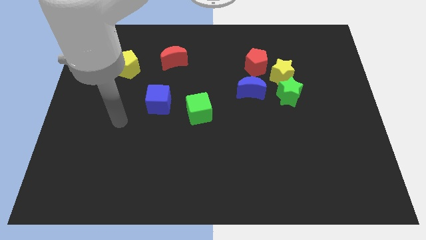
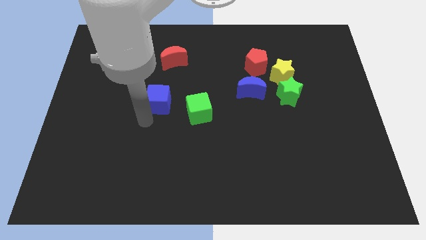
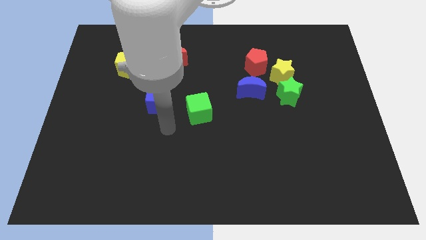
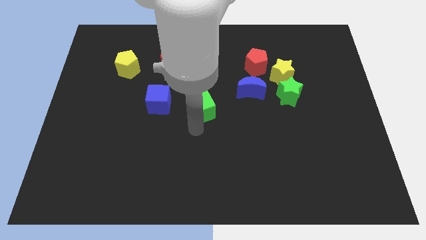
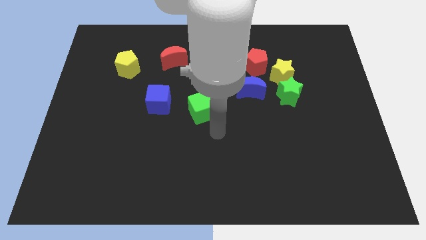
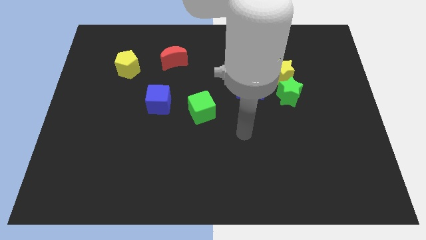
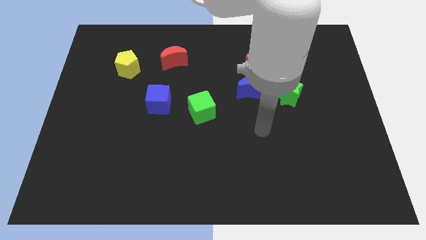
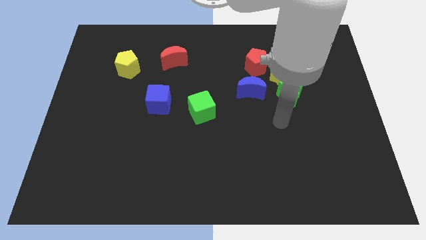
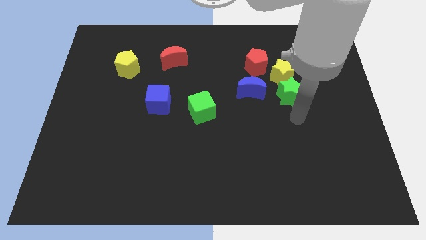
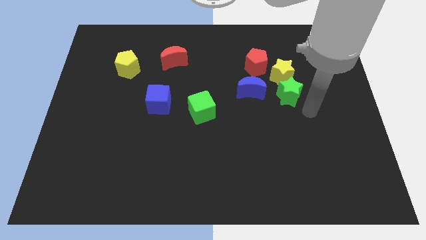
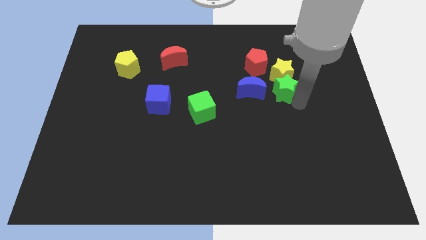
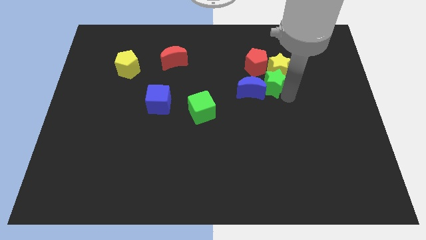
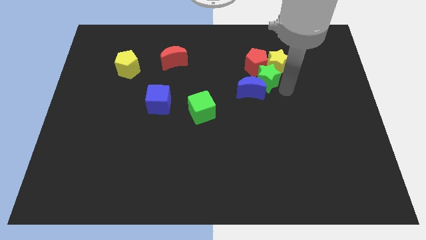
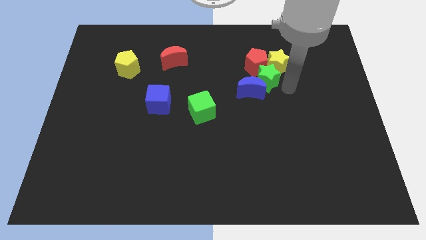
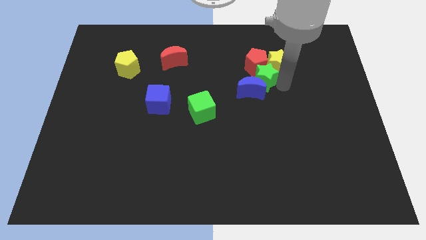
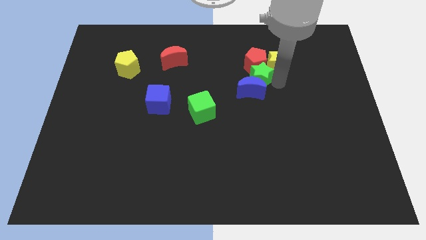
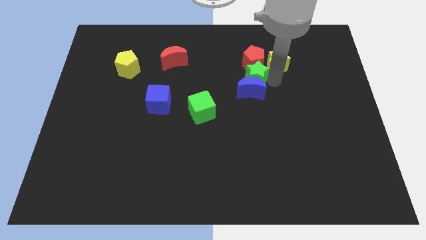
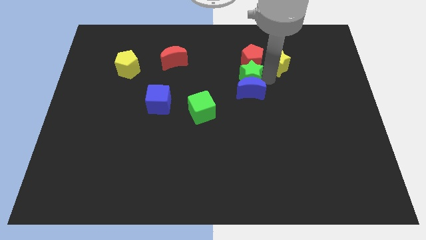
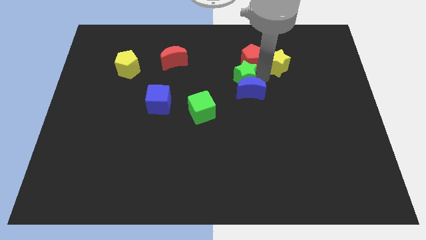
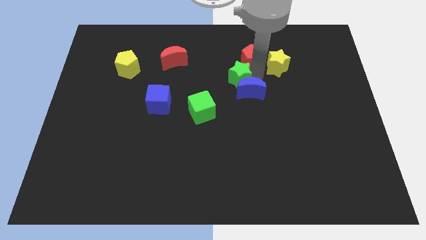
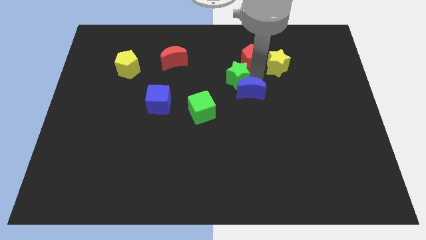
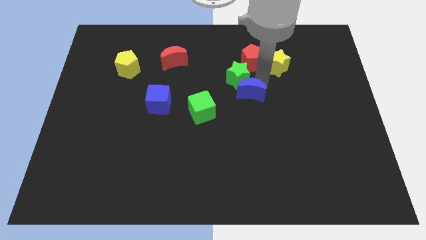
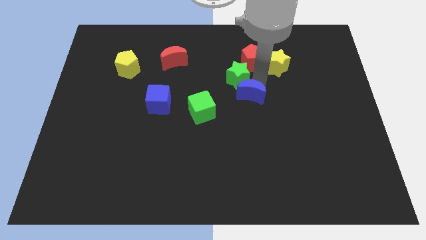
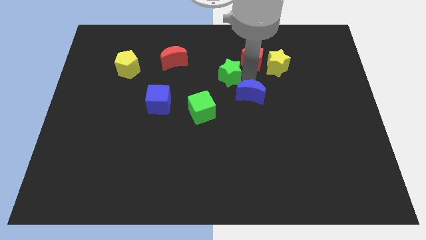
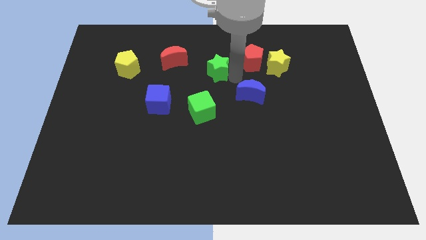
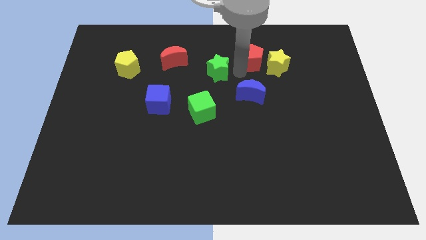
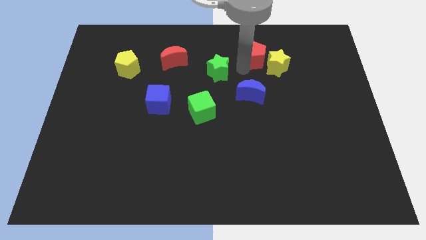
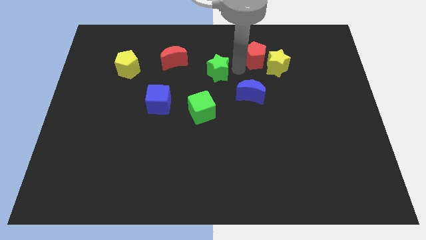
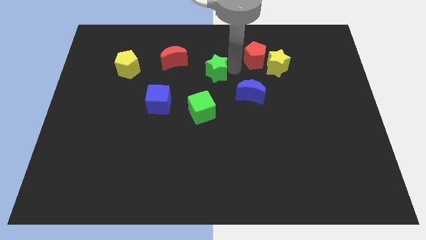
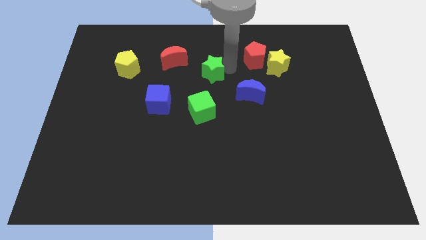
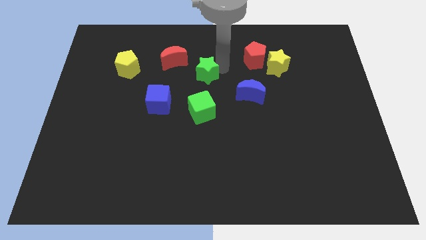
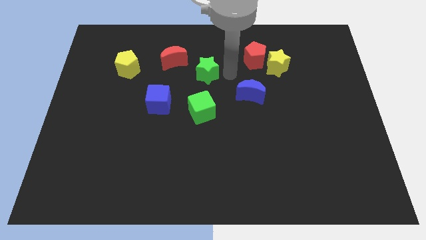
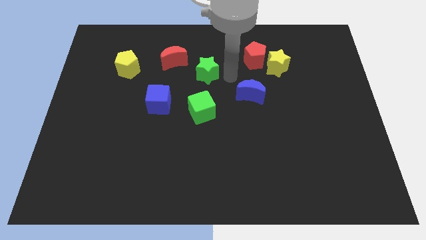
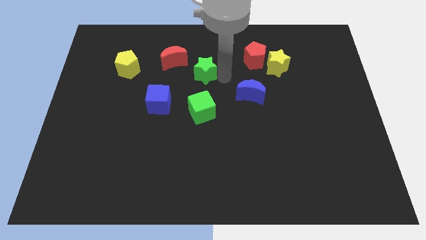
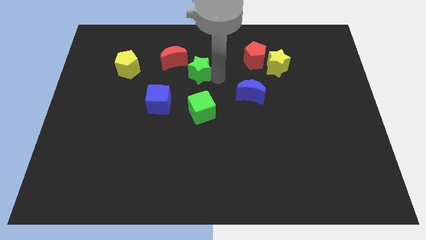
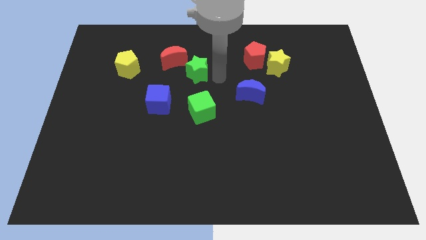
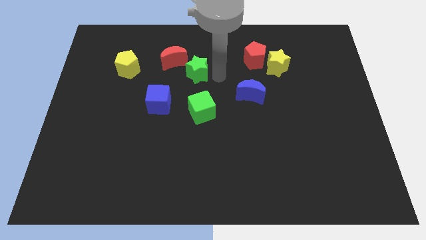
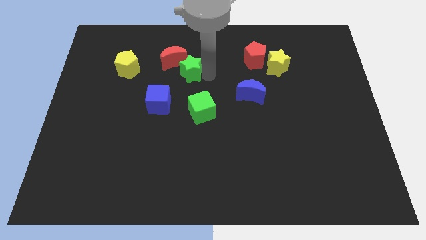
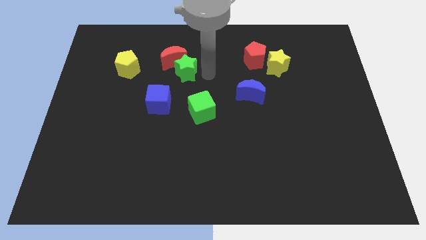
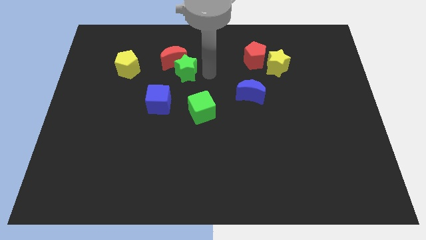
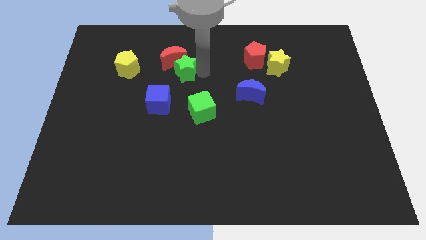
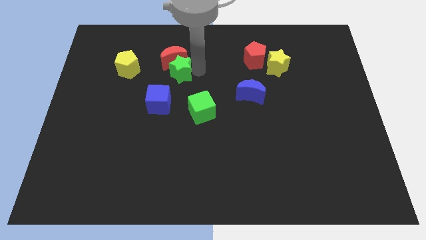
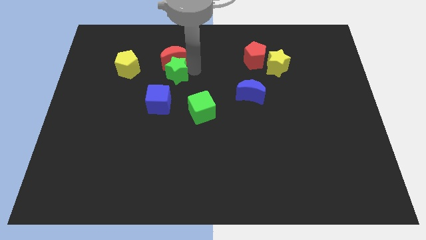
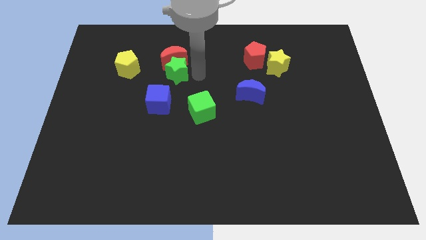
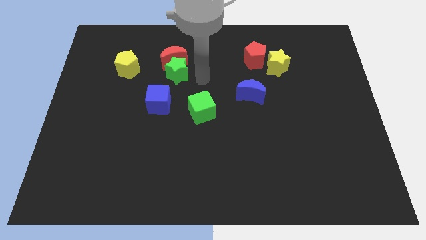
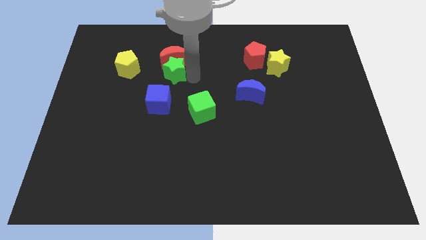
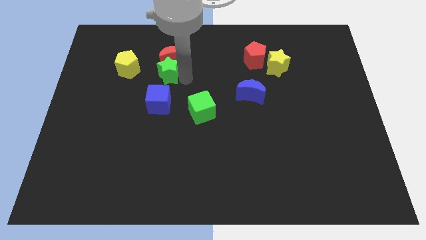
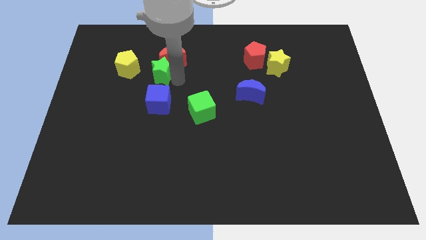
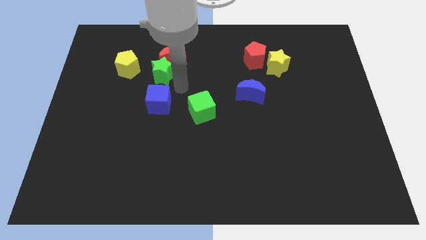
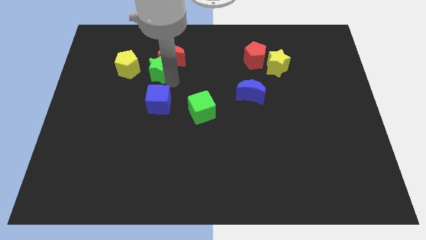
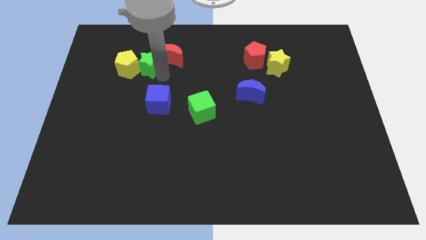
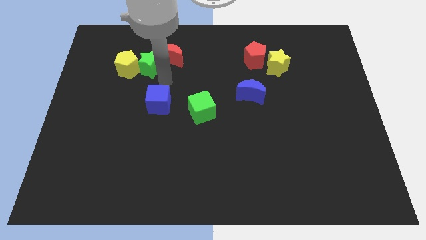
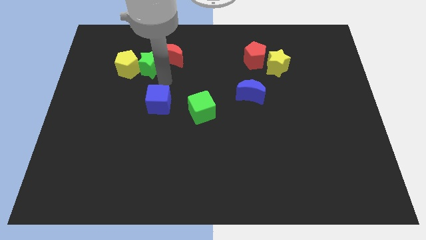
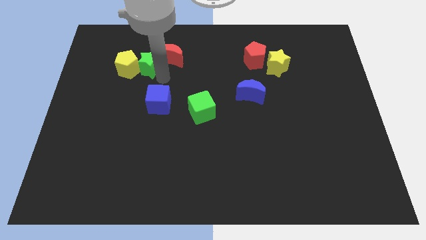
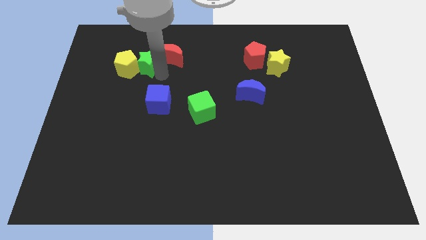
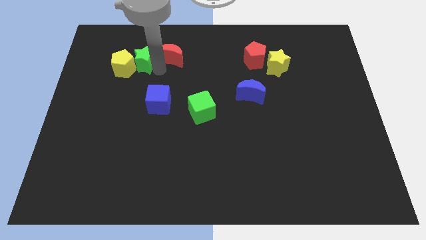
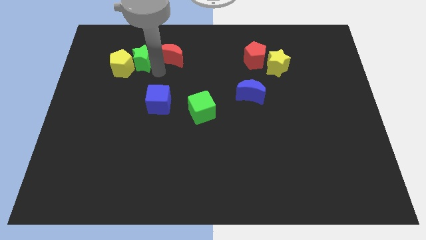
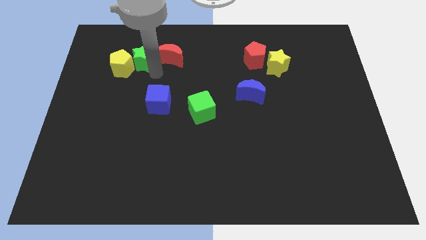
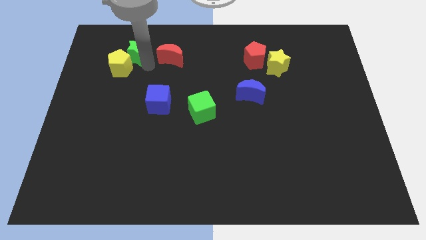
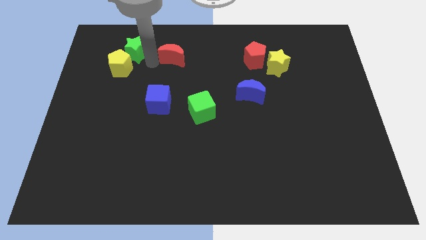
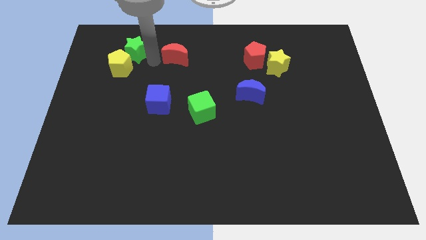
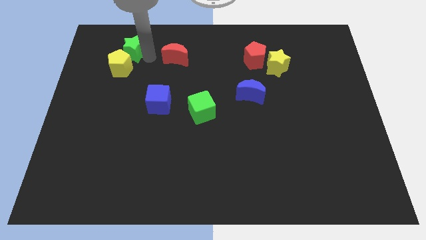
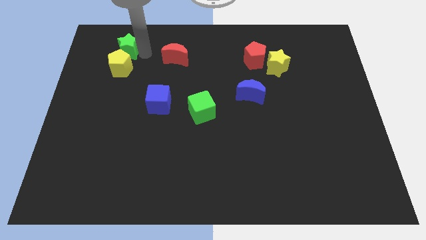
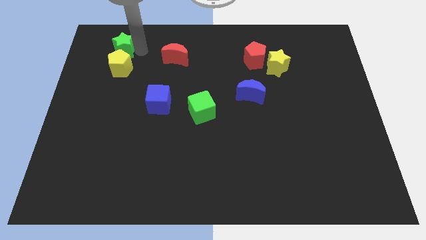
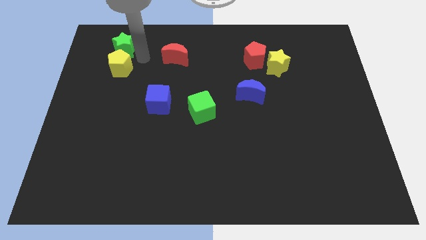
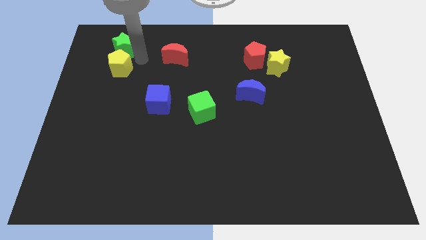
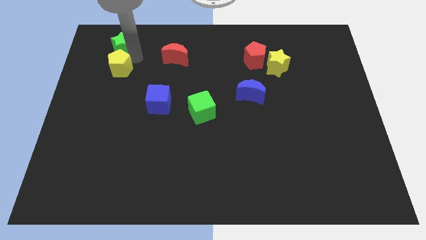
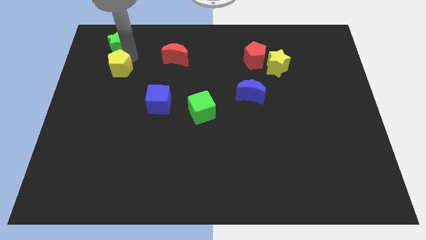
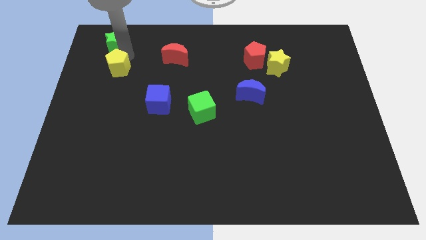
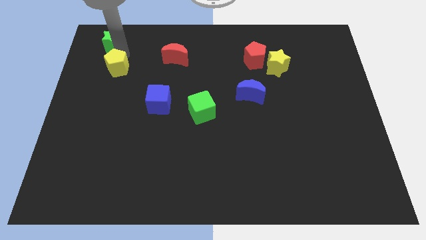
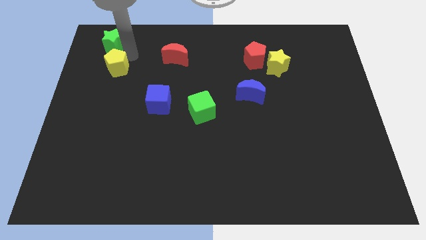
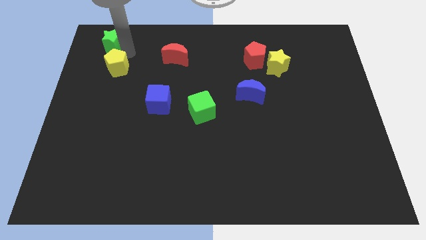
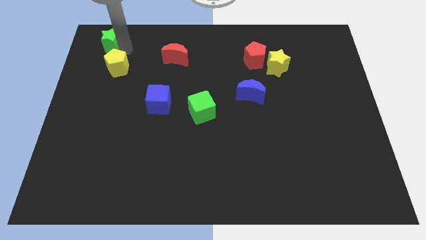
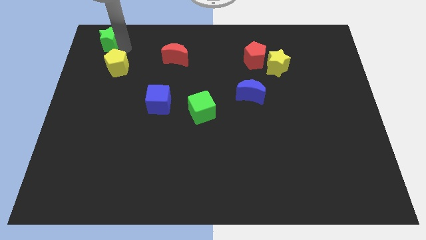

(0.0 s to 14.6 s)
move the green star to the upper left corner
